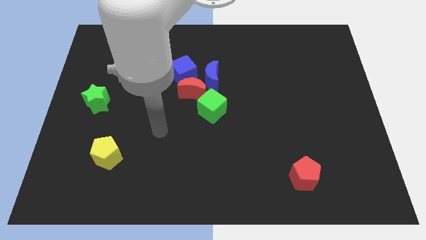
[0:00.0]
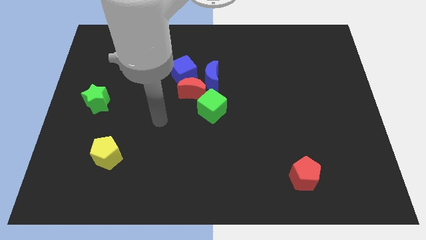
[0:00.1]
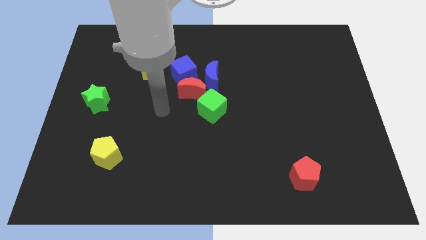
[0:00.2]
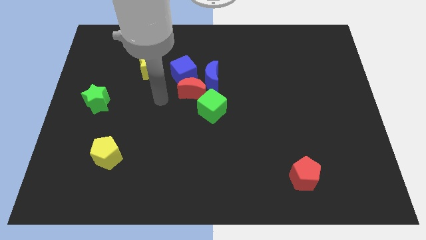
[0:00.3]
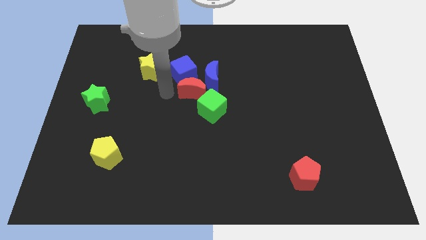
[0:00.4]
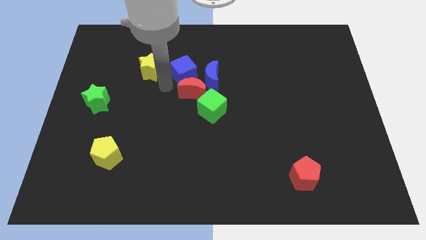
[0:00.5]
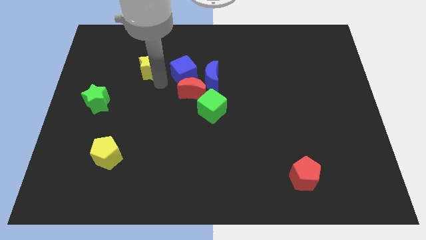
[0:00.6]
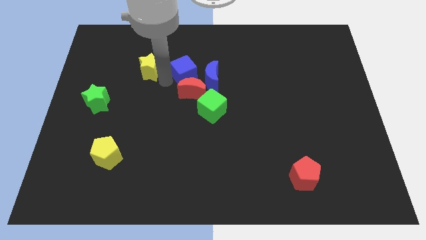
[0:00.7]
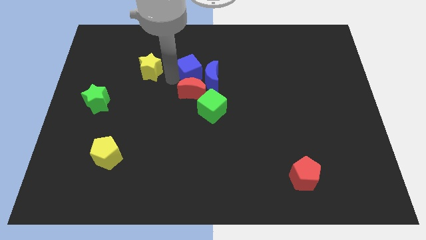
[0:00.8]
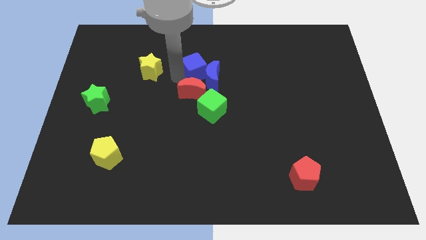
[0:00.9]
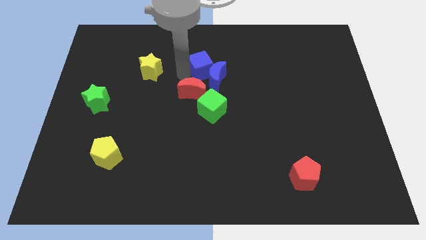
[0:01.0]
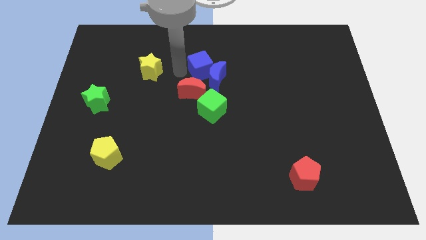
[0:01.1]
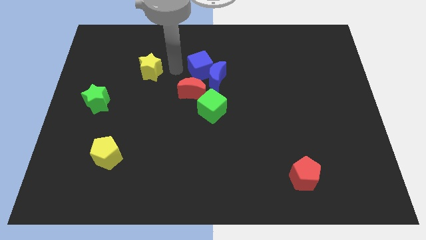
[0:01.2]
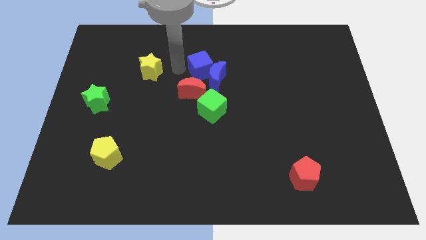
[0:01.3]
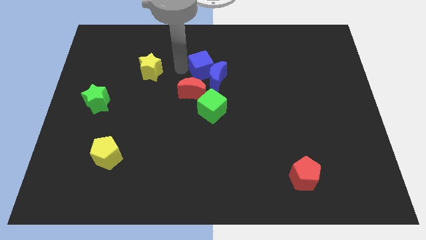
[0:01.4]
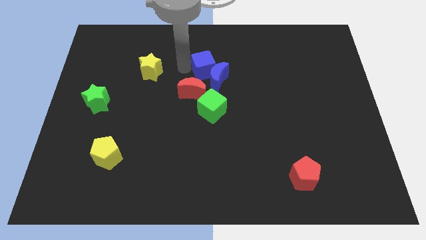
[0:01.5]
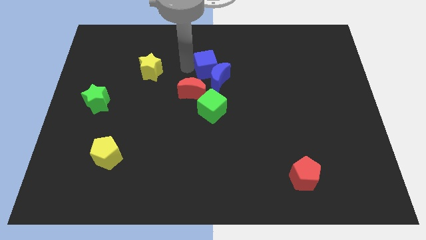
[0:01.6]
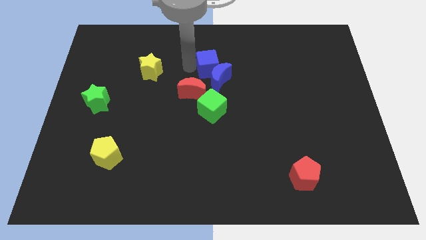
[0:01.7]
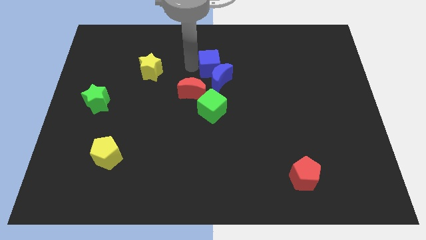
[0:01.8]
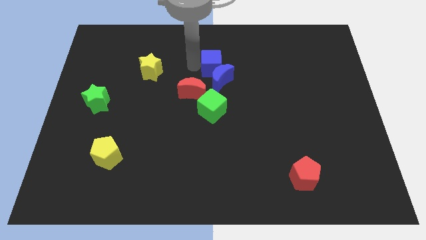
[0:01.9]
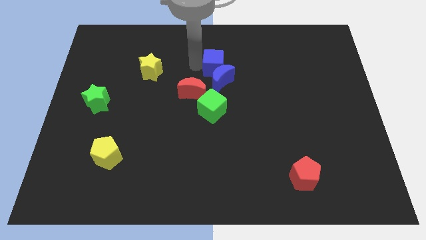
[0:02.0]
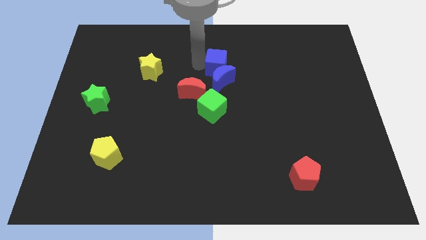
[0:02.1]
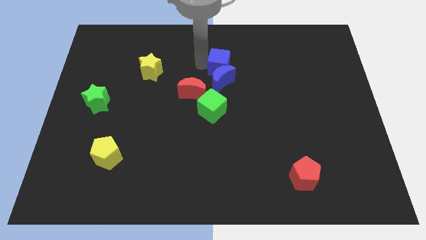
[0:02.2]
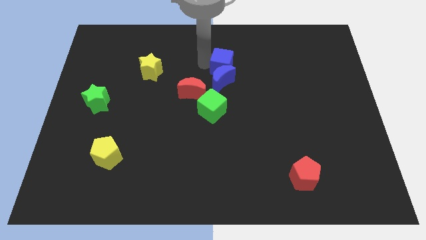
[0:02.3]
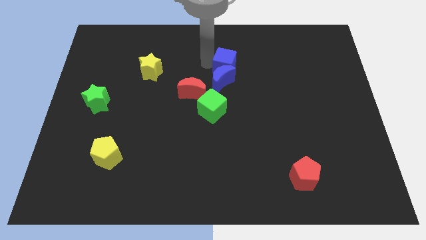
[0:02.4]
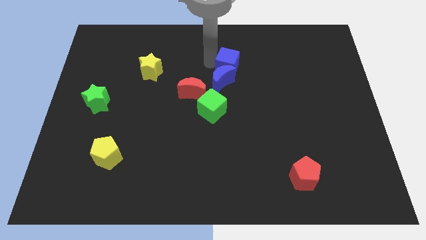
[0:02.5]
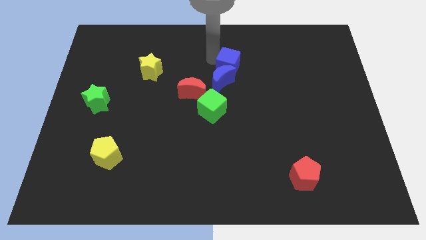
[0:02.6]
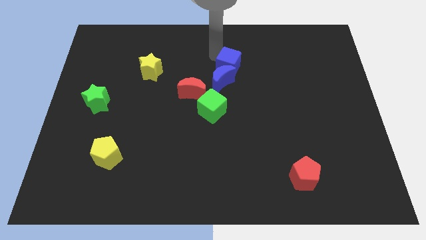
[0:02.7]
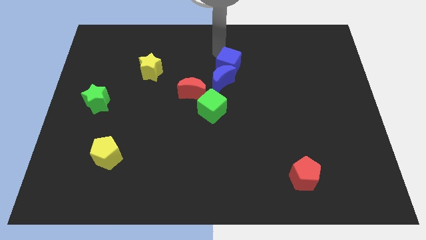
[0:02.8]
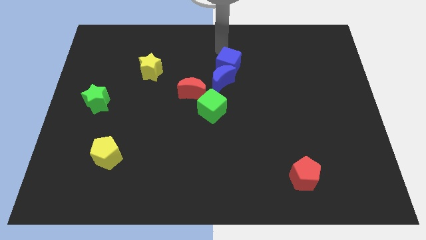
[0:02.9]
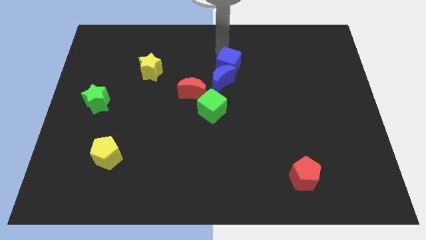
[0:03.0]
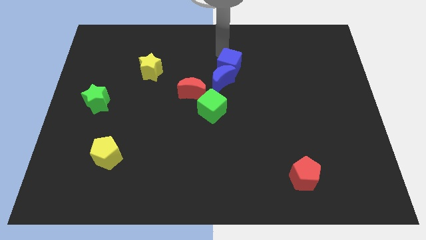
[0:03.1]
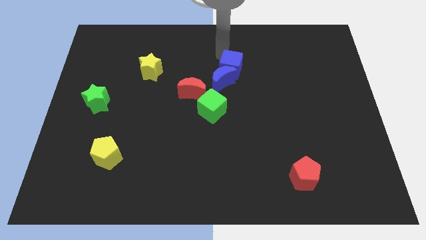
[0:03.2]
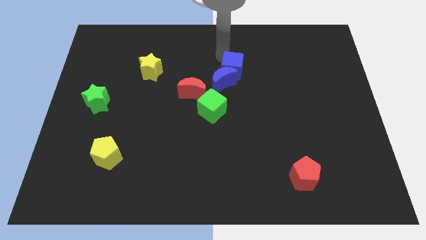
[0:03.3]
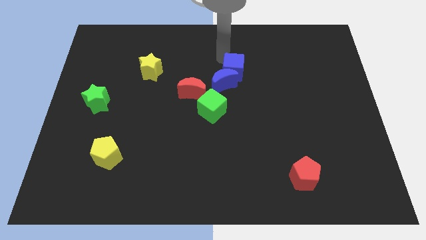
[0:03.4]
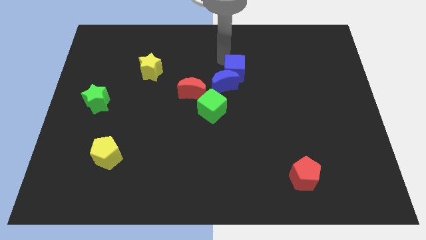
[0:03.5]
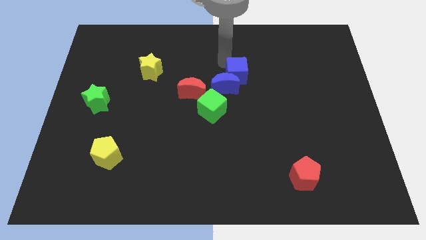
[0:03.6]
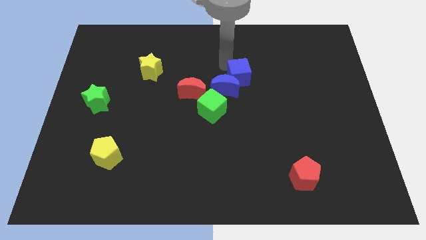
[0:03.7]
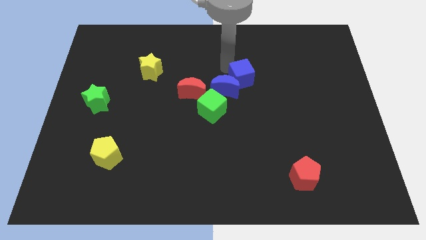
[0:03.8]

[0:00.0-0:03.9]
slide the blue cube a bit diagonally downwards and right

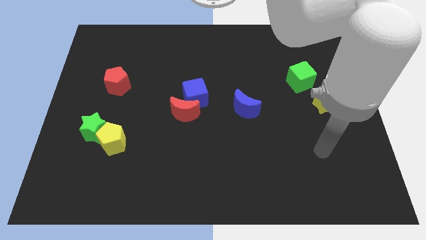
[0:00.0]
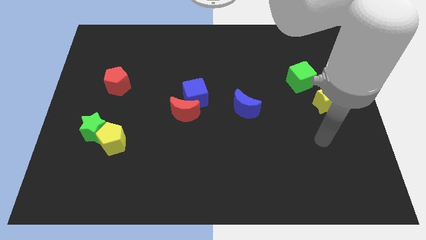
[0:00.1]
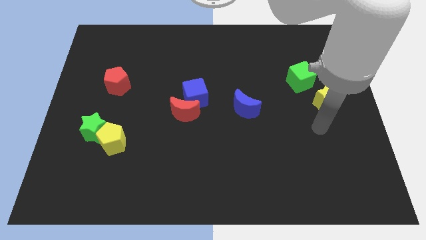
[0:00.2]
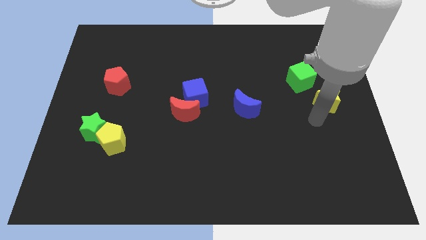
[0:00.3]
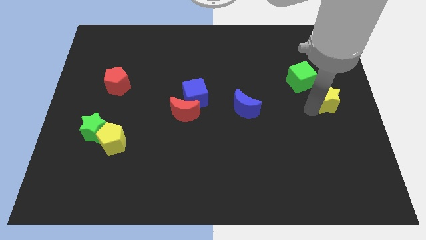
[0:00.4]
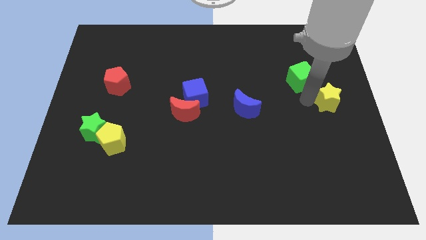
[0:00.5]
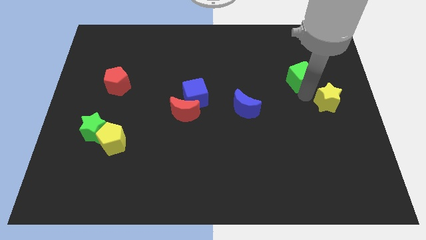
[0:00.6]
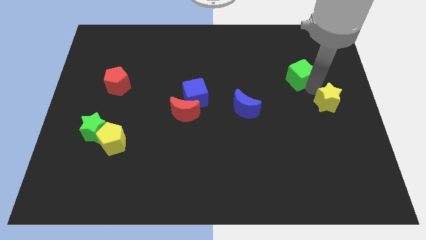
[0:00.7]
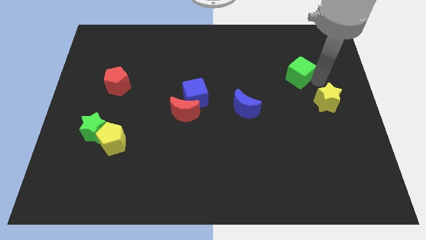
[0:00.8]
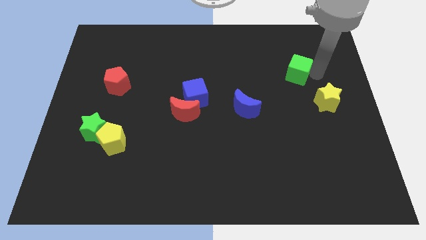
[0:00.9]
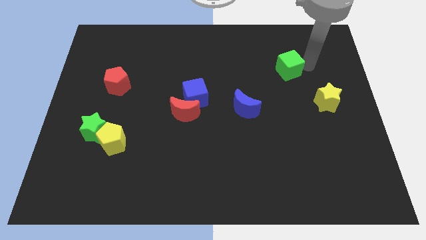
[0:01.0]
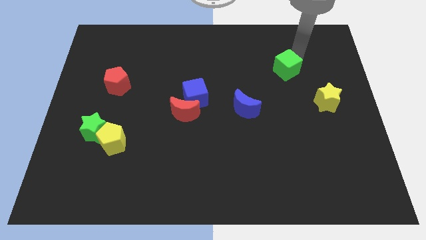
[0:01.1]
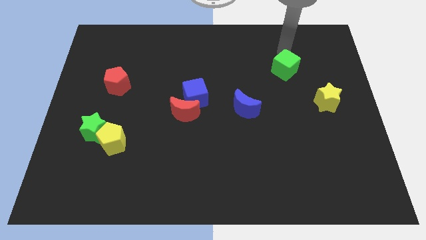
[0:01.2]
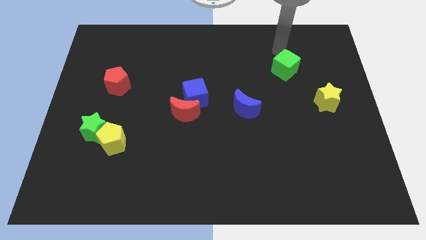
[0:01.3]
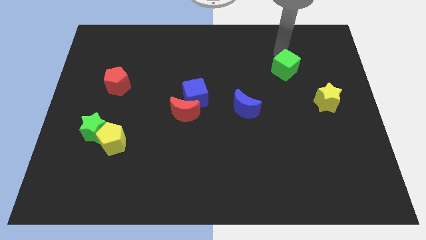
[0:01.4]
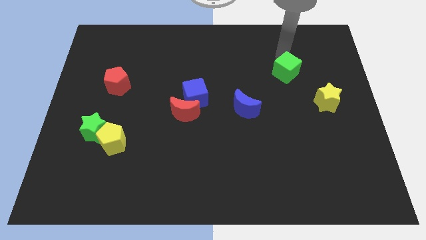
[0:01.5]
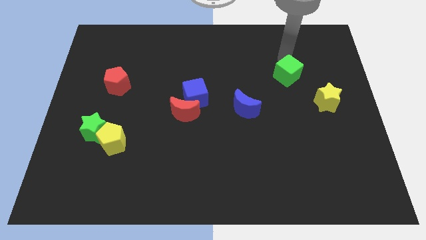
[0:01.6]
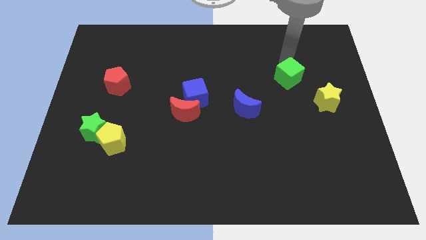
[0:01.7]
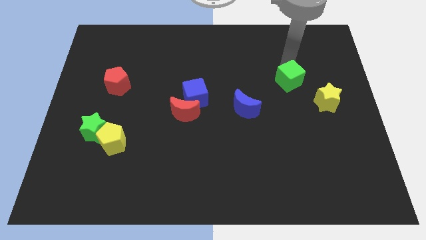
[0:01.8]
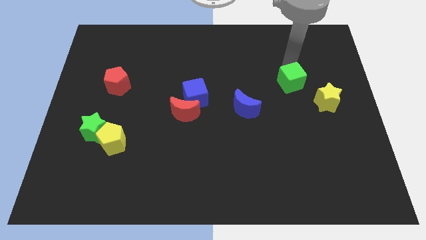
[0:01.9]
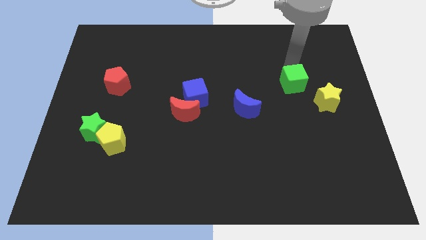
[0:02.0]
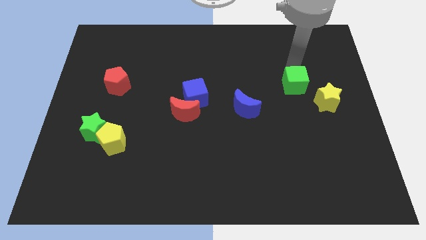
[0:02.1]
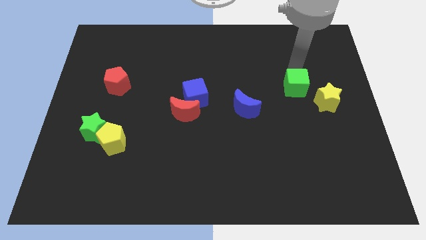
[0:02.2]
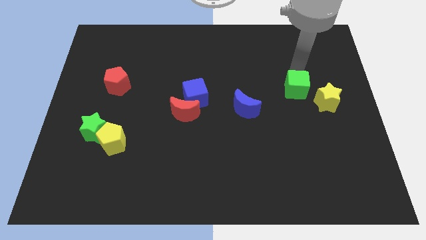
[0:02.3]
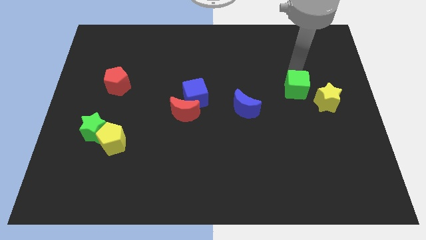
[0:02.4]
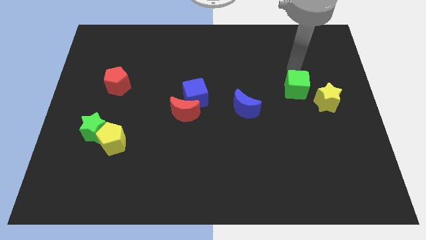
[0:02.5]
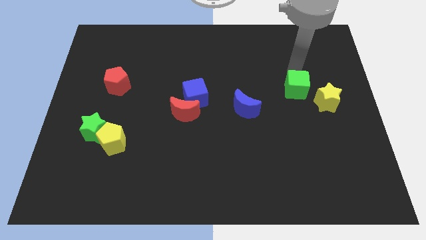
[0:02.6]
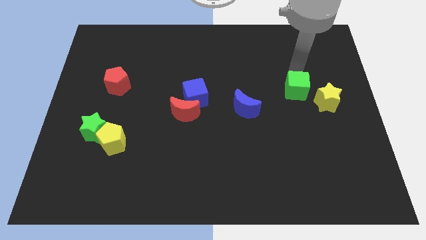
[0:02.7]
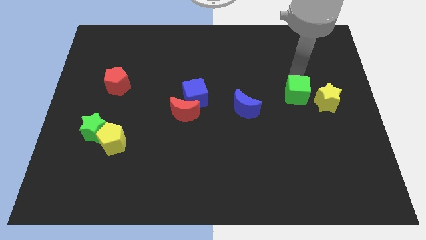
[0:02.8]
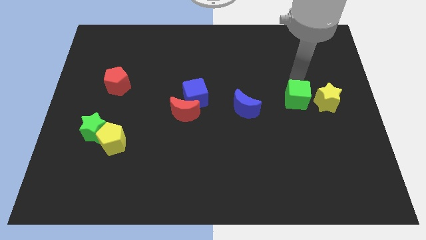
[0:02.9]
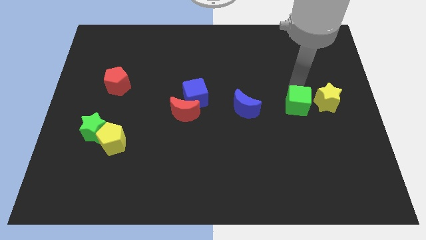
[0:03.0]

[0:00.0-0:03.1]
slide the green cube down somewhat

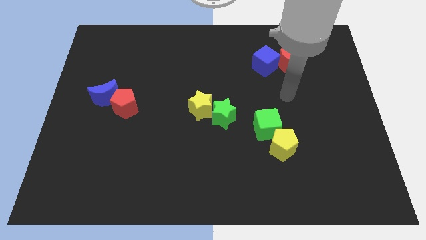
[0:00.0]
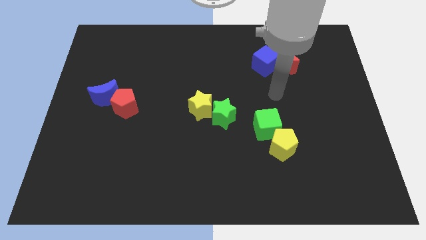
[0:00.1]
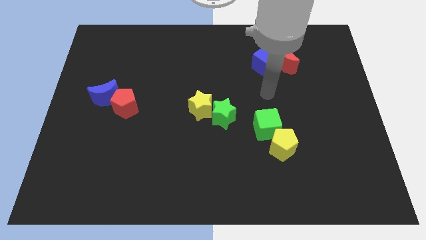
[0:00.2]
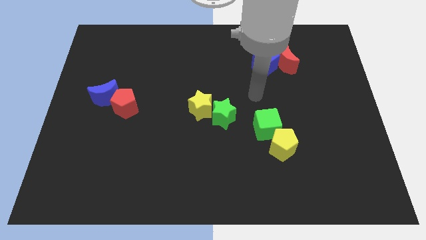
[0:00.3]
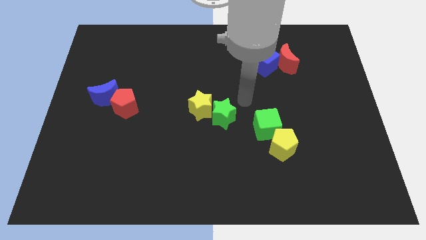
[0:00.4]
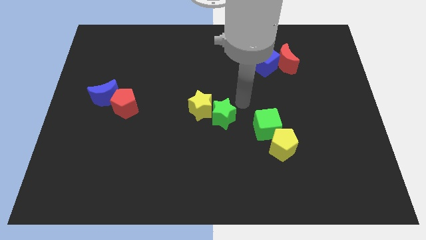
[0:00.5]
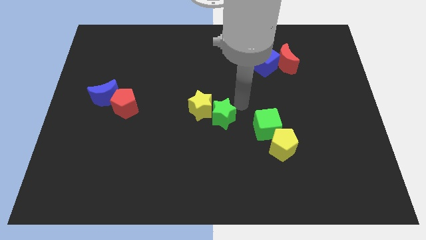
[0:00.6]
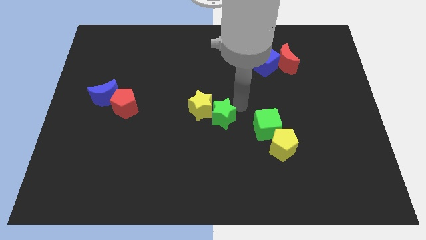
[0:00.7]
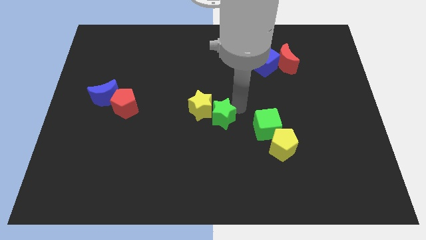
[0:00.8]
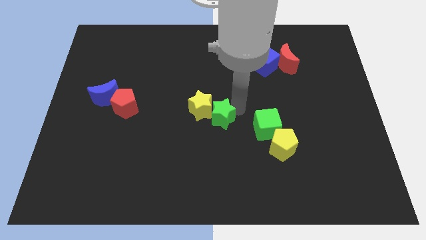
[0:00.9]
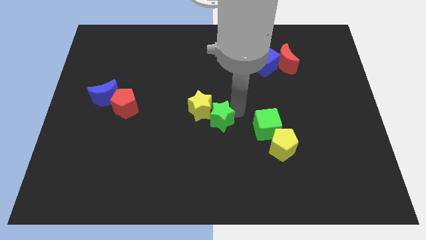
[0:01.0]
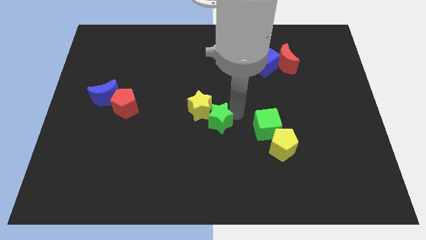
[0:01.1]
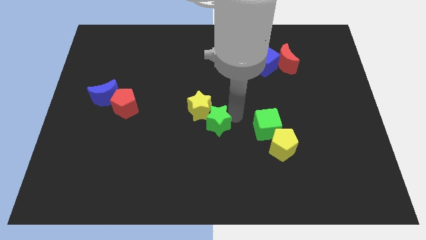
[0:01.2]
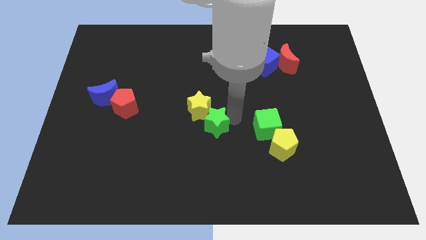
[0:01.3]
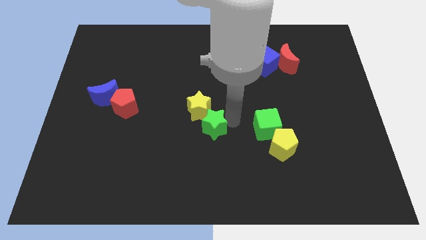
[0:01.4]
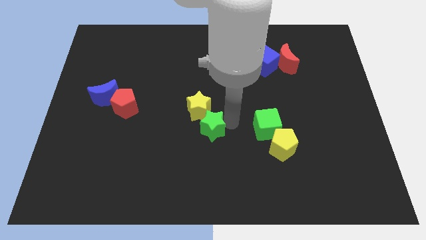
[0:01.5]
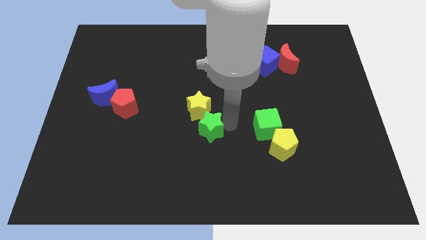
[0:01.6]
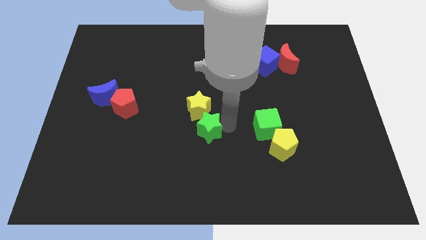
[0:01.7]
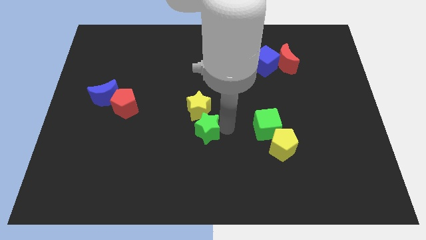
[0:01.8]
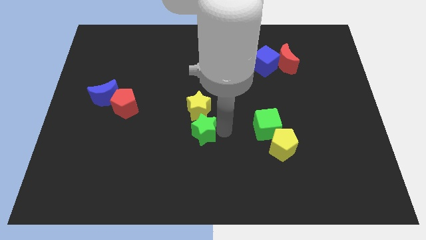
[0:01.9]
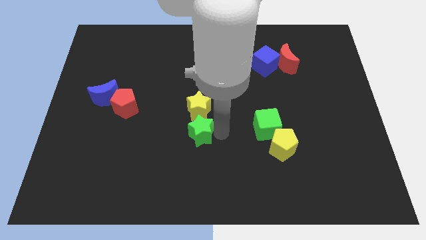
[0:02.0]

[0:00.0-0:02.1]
push the green star down and then to the left a bit
